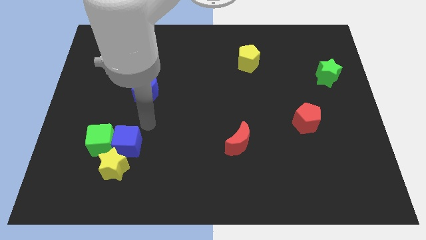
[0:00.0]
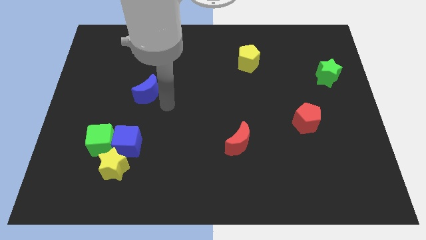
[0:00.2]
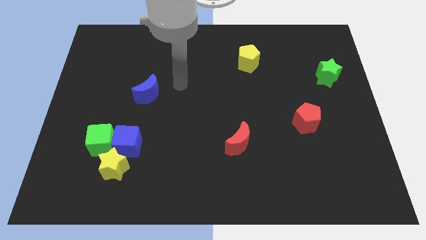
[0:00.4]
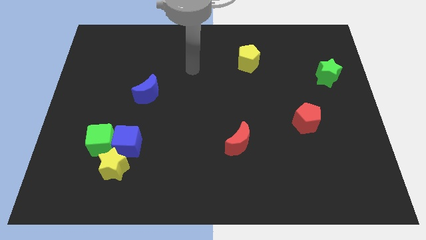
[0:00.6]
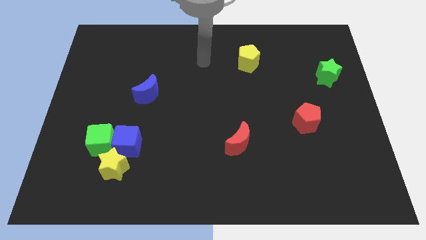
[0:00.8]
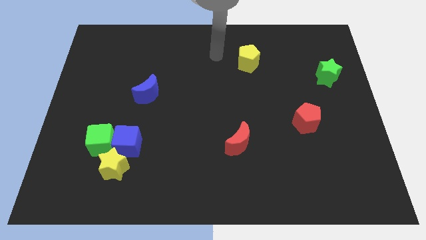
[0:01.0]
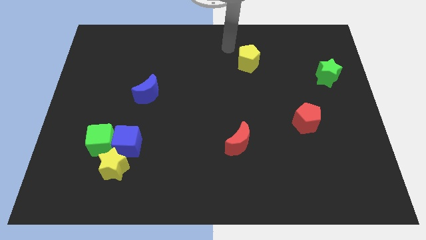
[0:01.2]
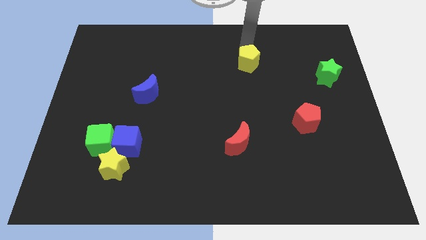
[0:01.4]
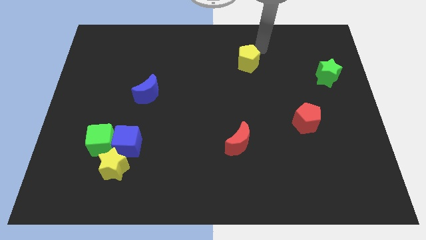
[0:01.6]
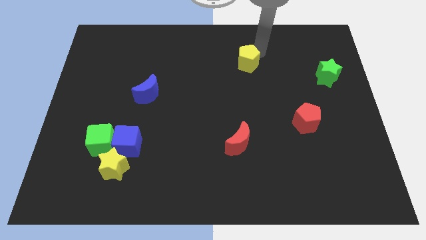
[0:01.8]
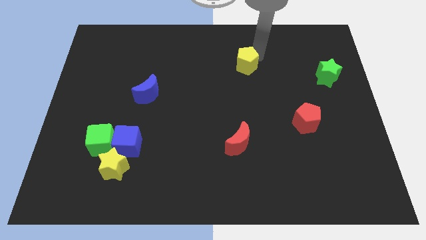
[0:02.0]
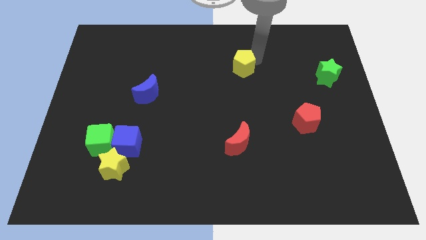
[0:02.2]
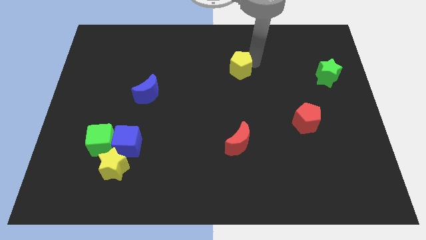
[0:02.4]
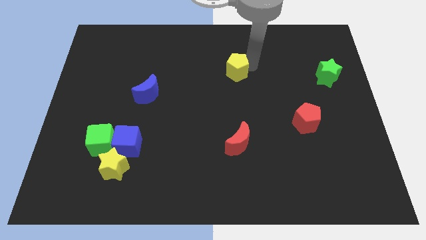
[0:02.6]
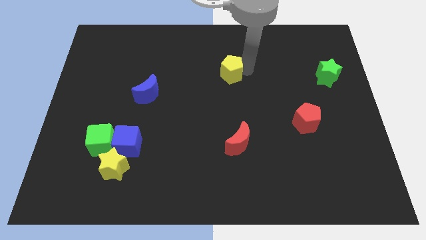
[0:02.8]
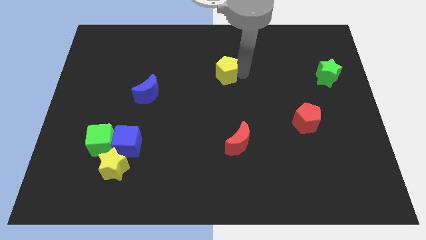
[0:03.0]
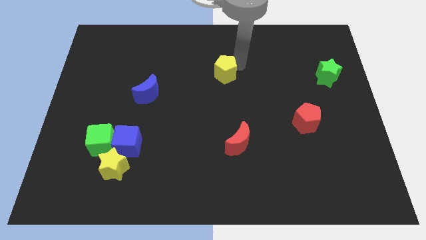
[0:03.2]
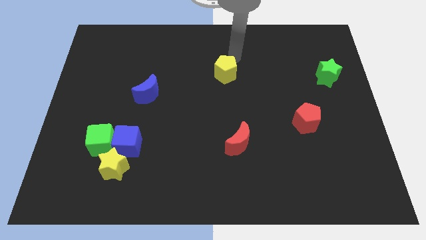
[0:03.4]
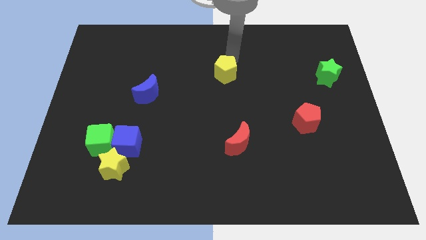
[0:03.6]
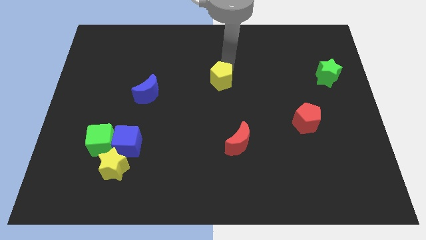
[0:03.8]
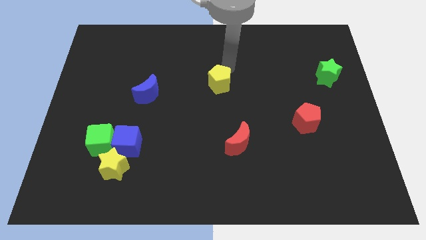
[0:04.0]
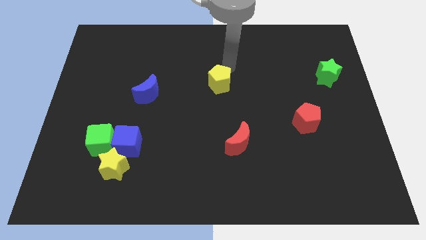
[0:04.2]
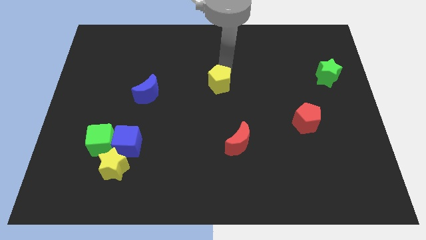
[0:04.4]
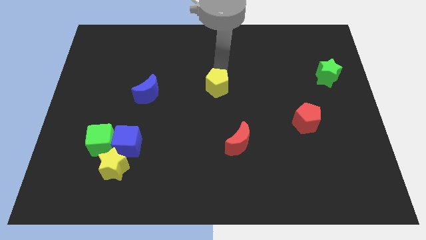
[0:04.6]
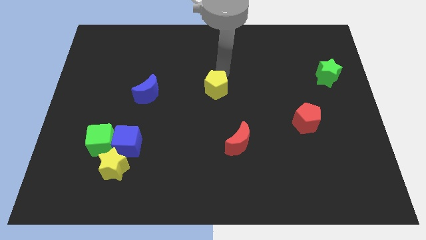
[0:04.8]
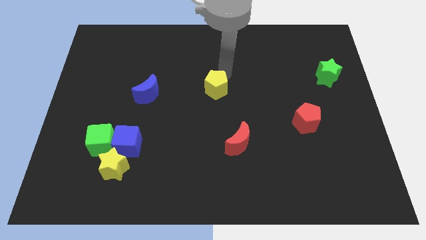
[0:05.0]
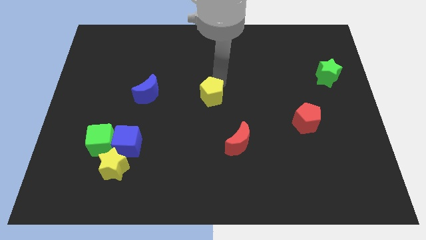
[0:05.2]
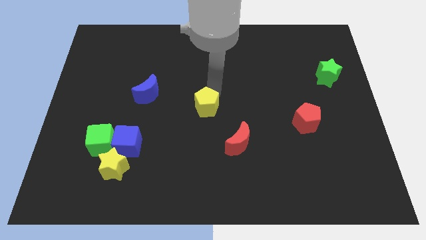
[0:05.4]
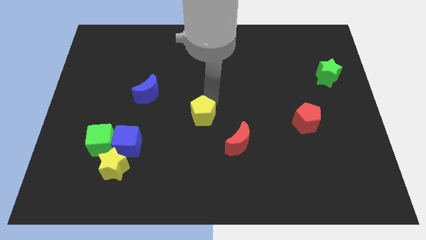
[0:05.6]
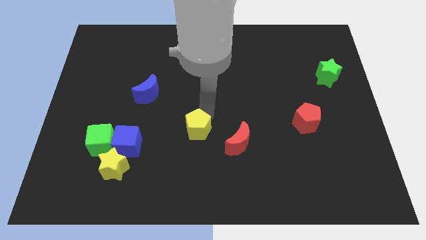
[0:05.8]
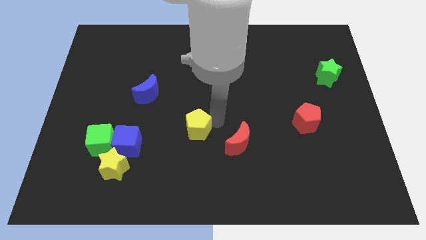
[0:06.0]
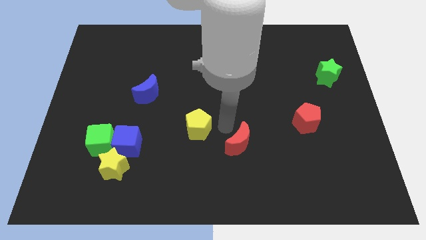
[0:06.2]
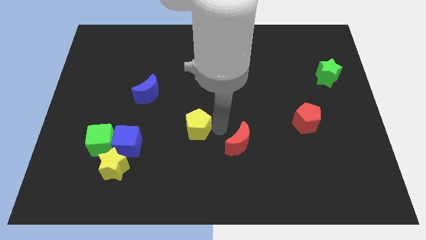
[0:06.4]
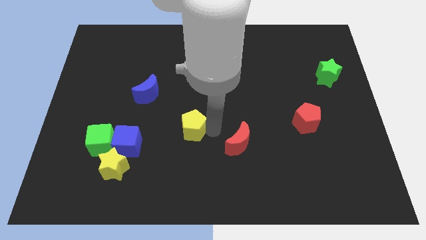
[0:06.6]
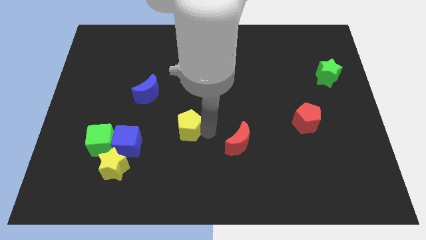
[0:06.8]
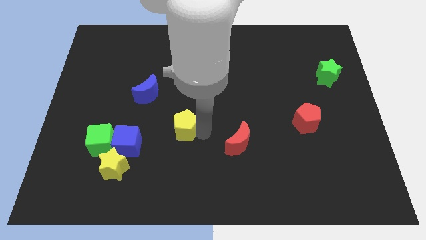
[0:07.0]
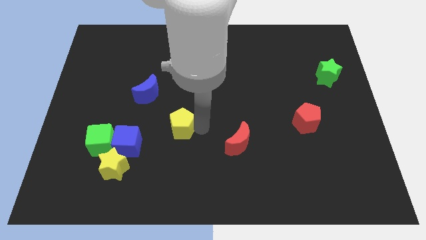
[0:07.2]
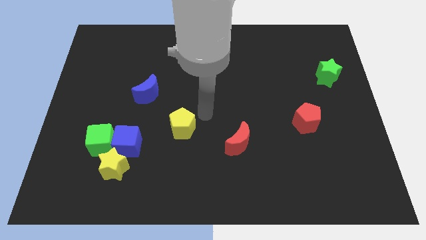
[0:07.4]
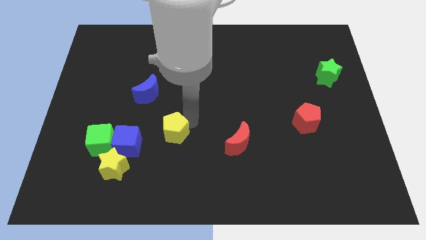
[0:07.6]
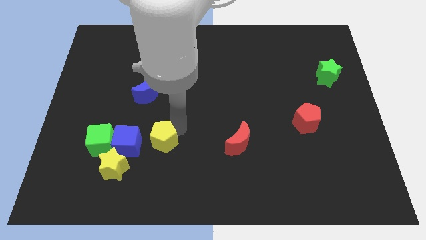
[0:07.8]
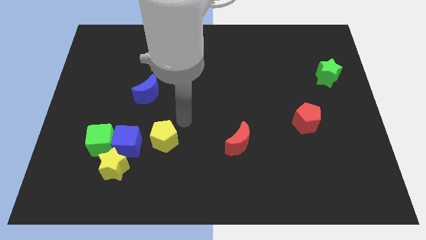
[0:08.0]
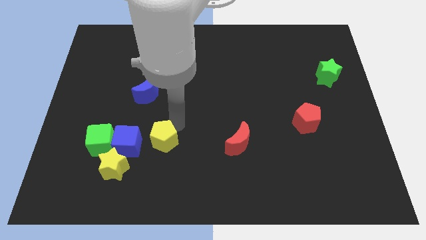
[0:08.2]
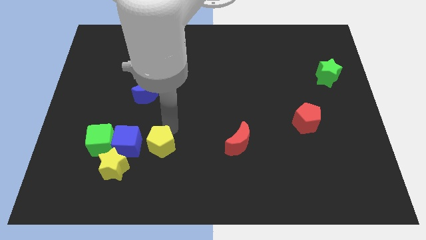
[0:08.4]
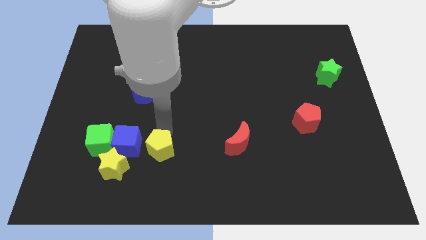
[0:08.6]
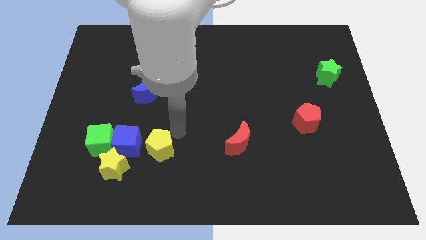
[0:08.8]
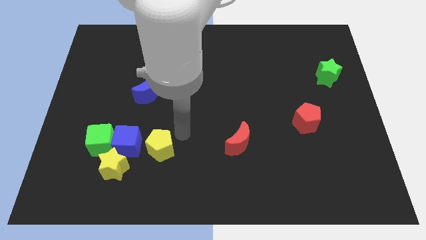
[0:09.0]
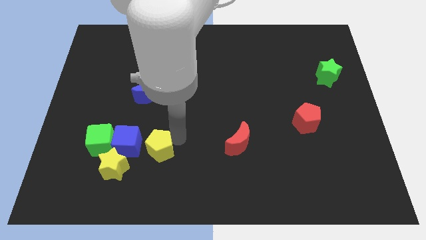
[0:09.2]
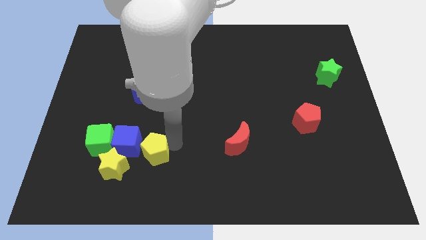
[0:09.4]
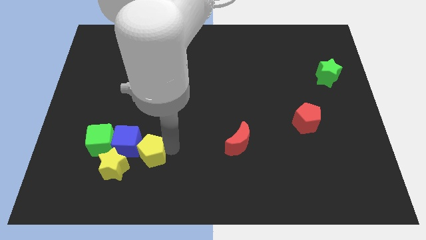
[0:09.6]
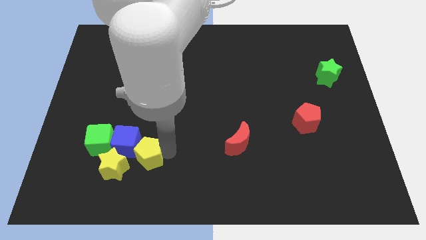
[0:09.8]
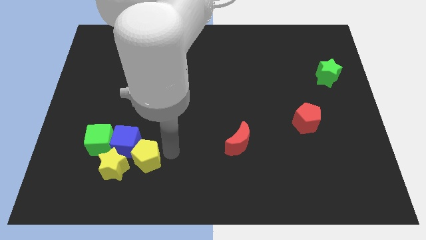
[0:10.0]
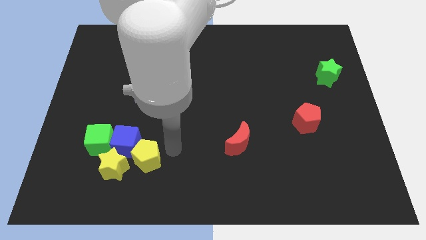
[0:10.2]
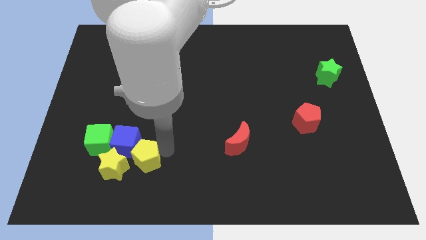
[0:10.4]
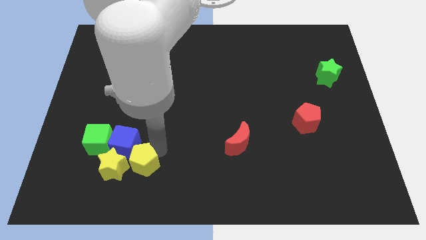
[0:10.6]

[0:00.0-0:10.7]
put the yellow pentagon towards the yellow star

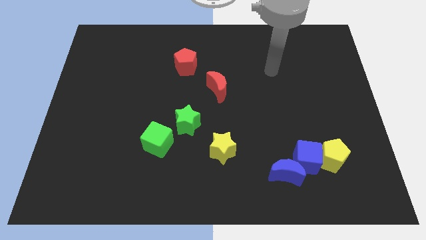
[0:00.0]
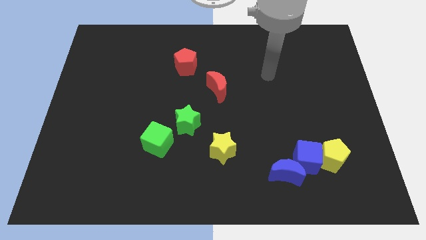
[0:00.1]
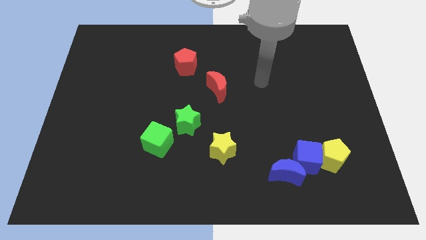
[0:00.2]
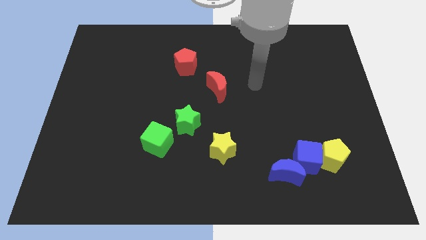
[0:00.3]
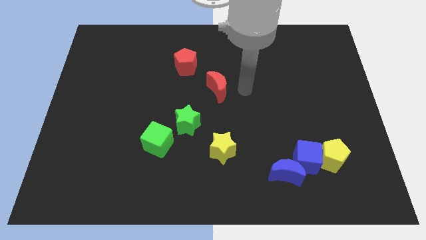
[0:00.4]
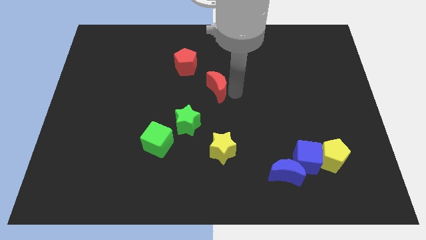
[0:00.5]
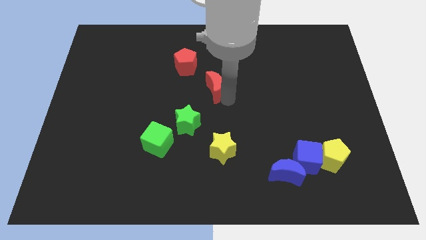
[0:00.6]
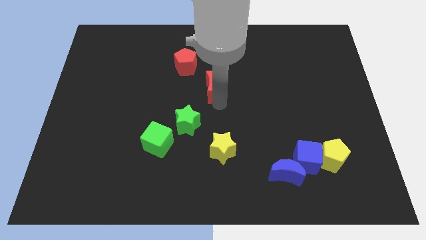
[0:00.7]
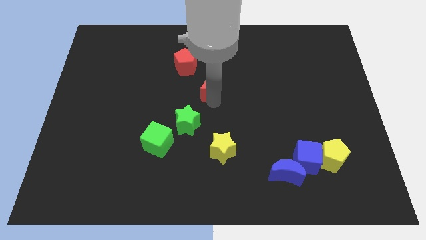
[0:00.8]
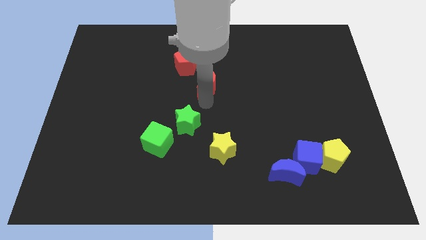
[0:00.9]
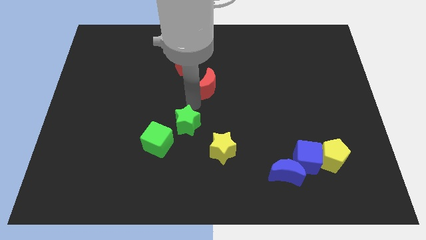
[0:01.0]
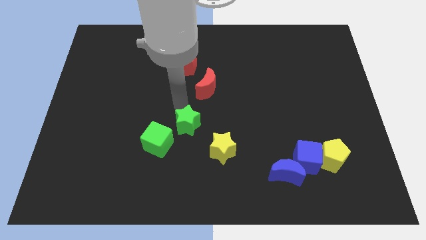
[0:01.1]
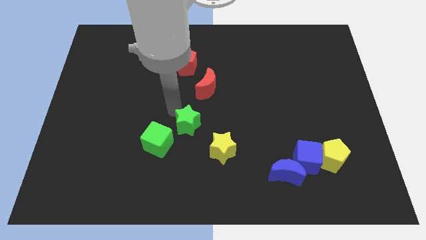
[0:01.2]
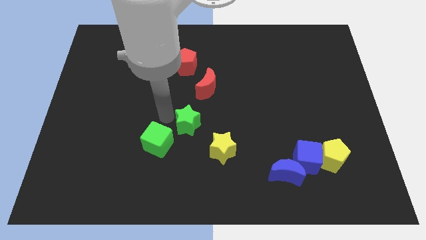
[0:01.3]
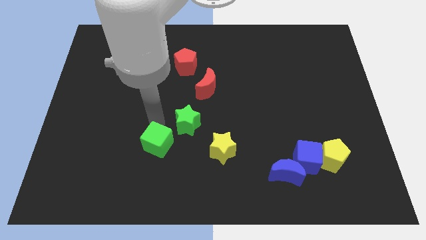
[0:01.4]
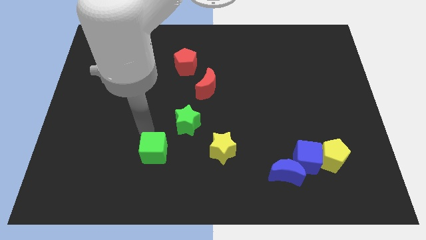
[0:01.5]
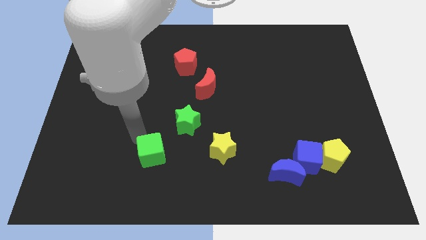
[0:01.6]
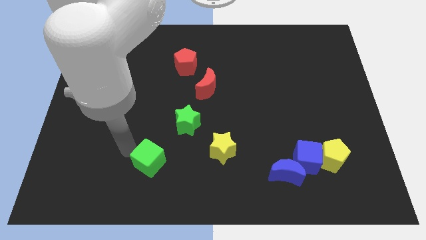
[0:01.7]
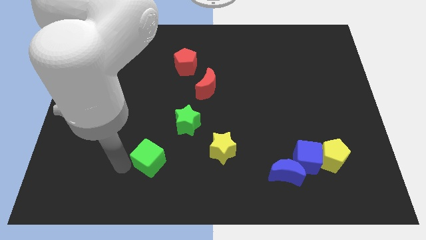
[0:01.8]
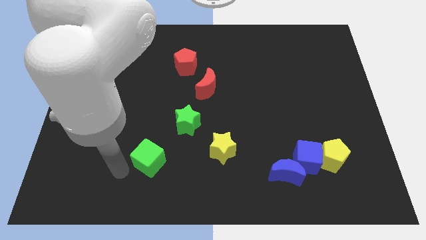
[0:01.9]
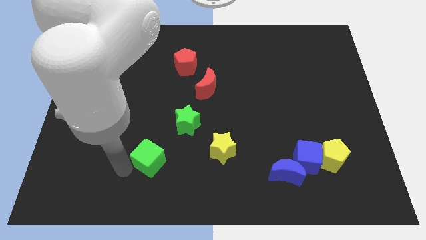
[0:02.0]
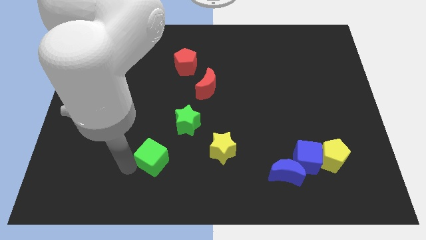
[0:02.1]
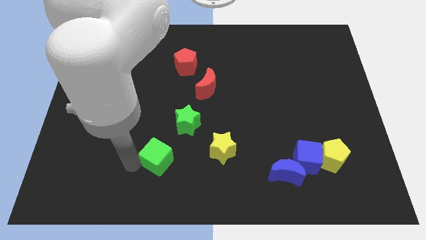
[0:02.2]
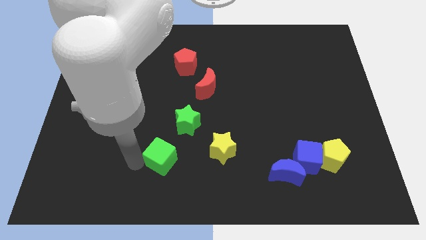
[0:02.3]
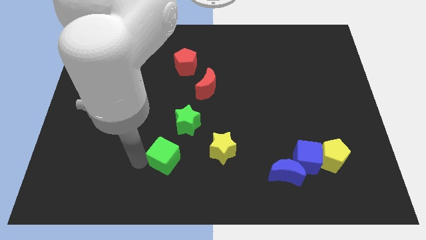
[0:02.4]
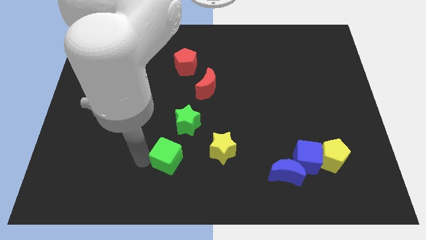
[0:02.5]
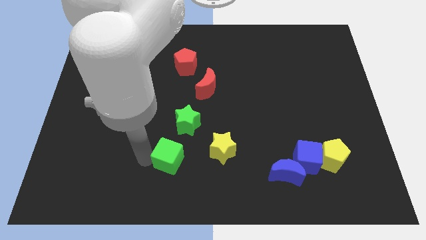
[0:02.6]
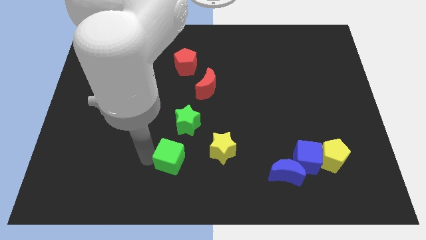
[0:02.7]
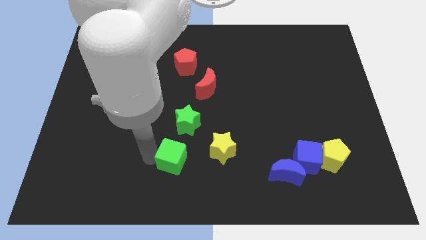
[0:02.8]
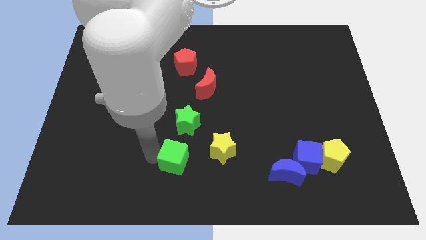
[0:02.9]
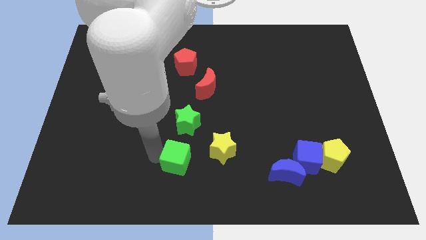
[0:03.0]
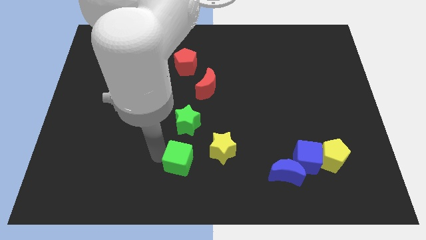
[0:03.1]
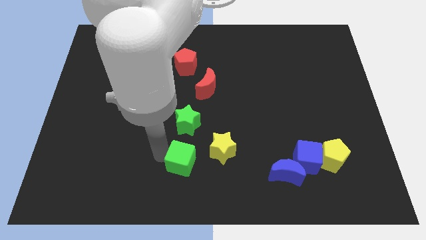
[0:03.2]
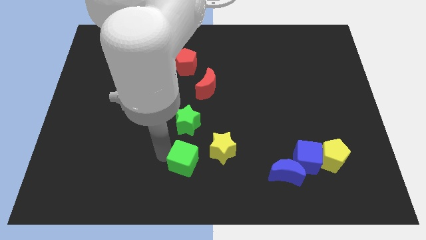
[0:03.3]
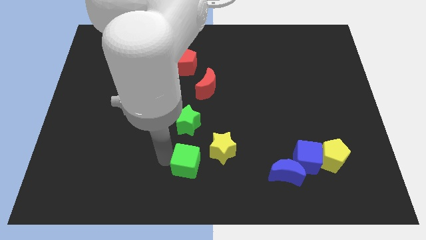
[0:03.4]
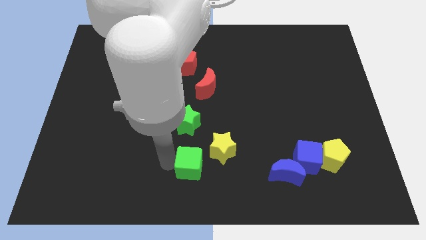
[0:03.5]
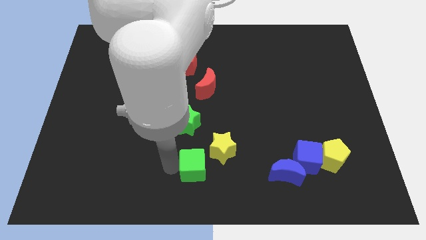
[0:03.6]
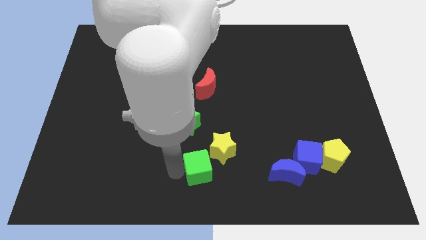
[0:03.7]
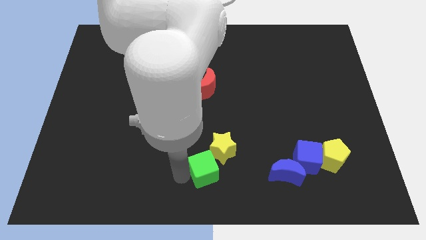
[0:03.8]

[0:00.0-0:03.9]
put the green cube to the yellow star
